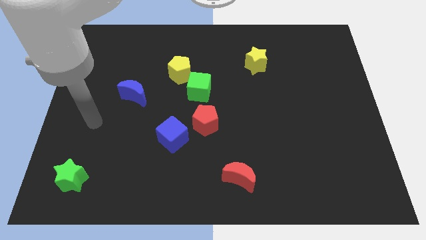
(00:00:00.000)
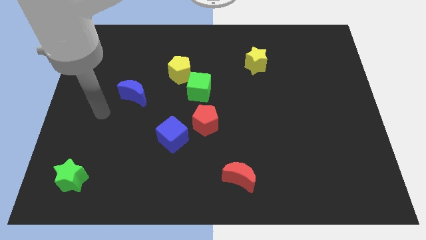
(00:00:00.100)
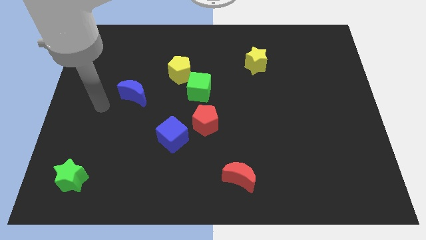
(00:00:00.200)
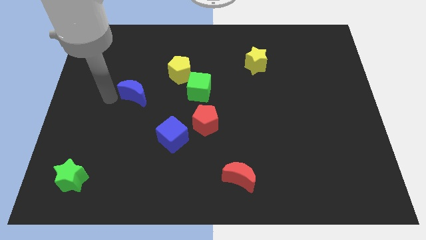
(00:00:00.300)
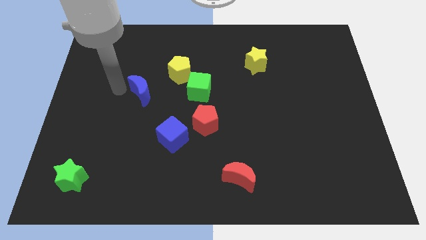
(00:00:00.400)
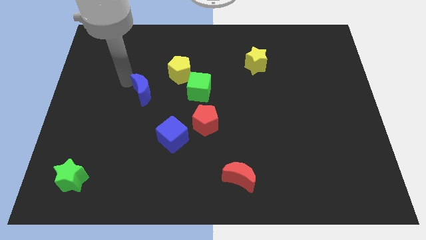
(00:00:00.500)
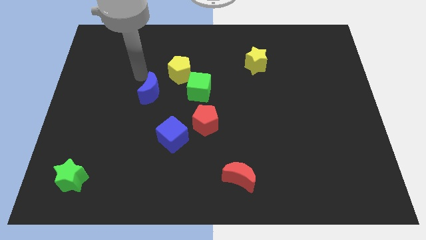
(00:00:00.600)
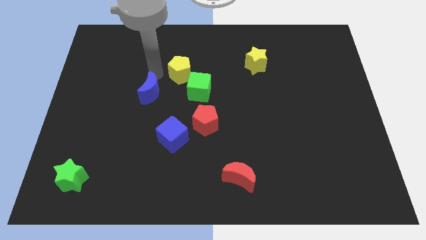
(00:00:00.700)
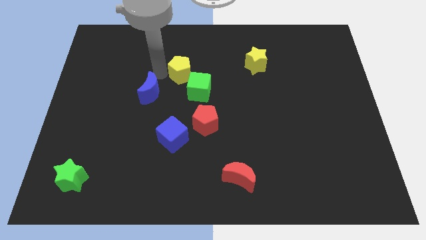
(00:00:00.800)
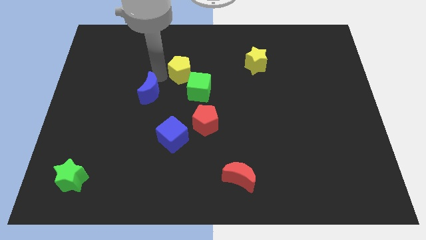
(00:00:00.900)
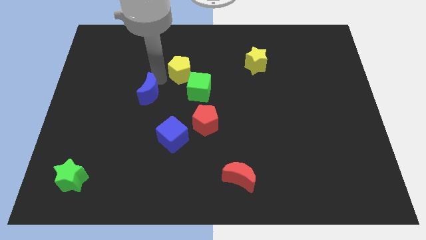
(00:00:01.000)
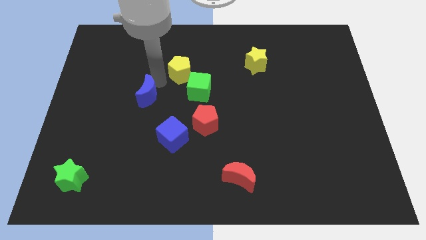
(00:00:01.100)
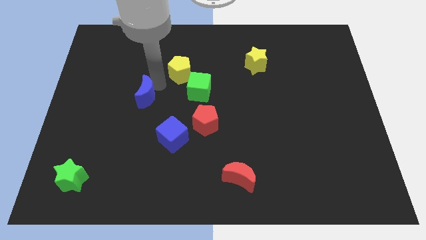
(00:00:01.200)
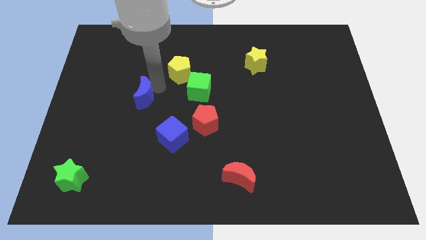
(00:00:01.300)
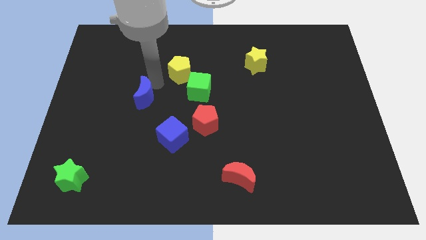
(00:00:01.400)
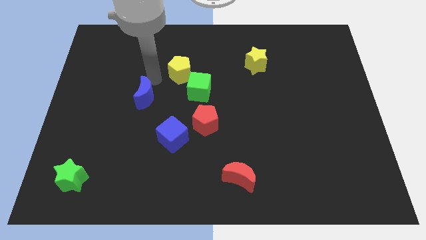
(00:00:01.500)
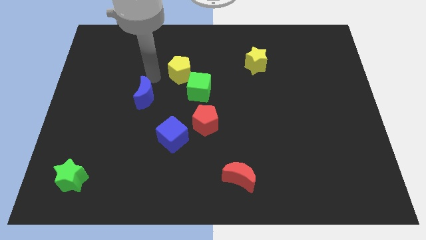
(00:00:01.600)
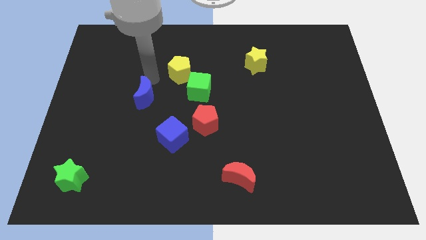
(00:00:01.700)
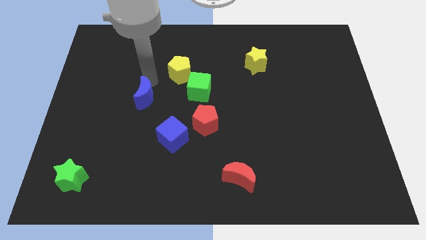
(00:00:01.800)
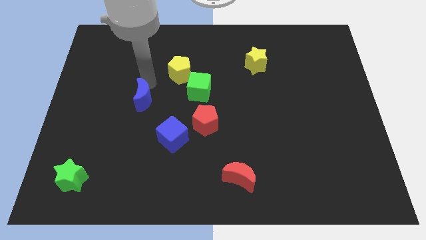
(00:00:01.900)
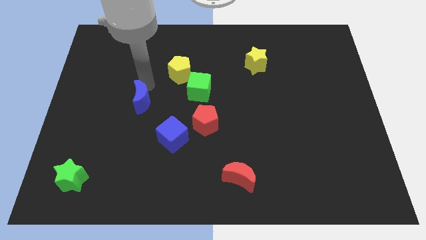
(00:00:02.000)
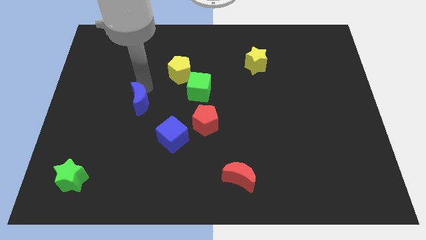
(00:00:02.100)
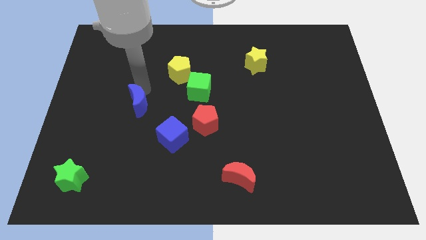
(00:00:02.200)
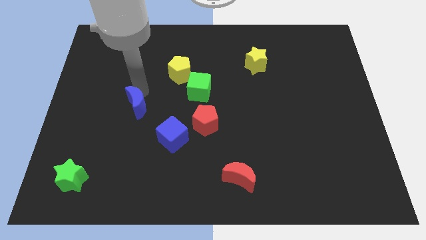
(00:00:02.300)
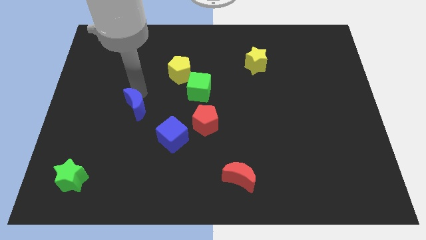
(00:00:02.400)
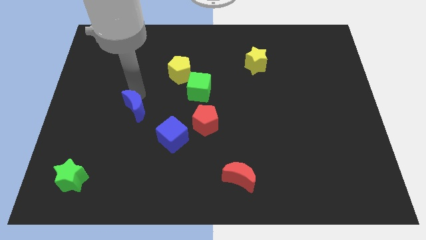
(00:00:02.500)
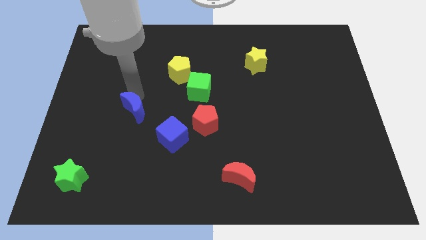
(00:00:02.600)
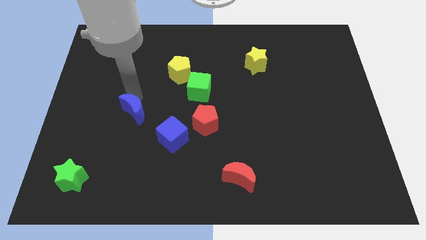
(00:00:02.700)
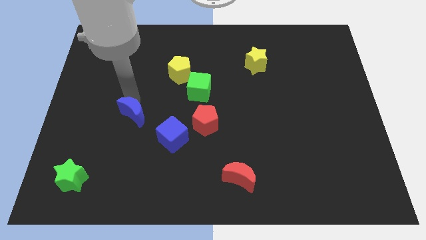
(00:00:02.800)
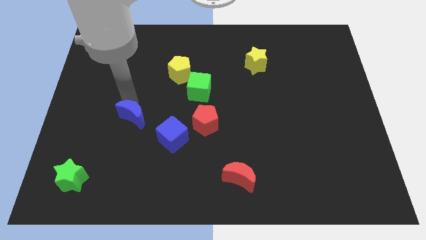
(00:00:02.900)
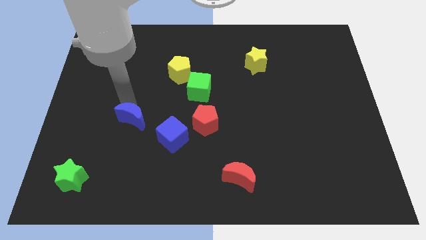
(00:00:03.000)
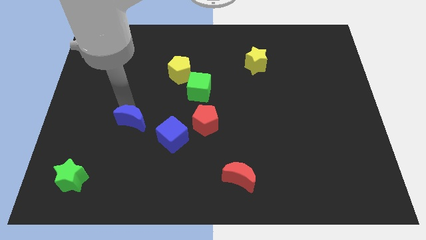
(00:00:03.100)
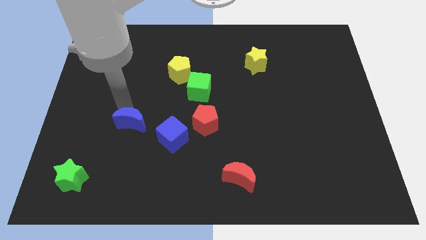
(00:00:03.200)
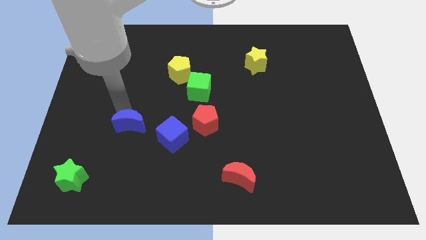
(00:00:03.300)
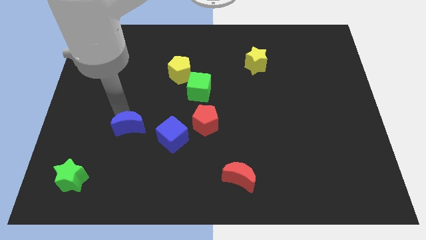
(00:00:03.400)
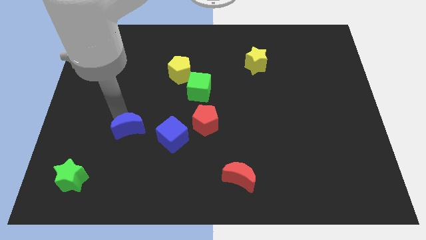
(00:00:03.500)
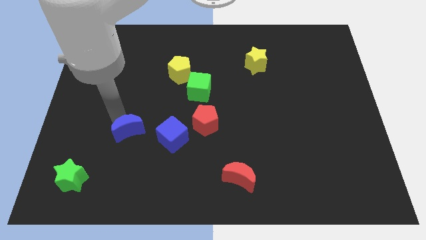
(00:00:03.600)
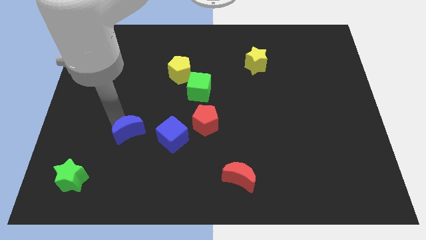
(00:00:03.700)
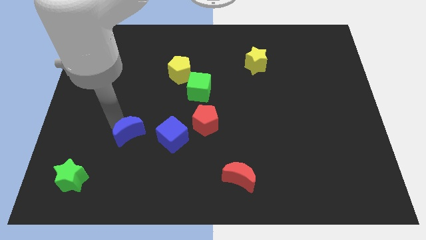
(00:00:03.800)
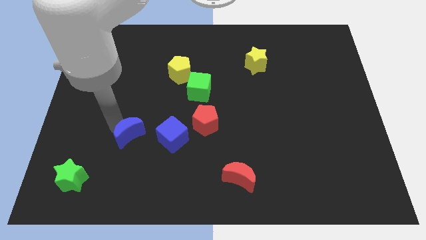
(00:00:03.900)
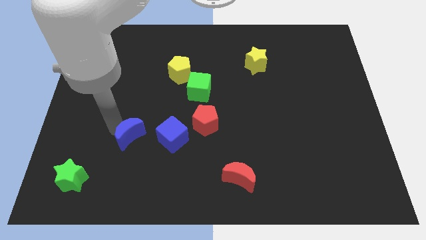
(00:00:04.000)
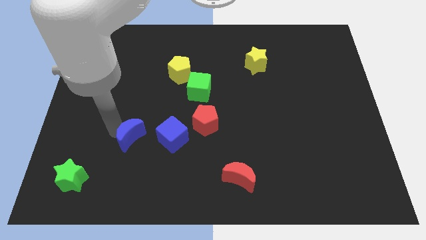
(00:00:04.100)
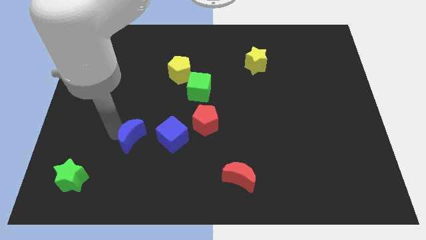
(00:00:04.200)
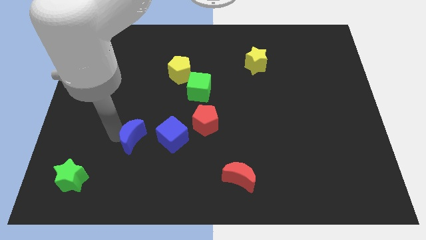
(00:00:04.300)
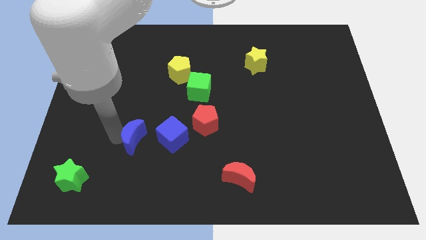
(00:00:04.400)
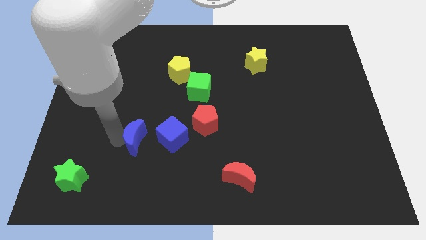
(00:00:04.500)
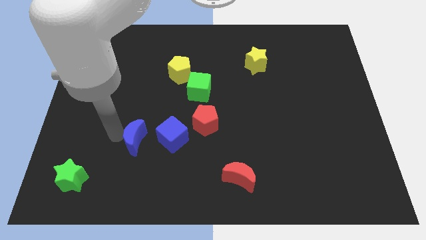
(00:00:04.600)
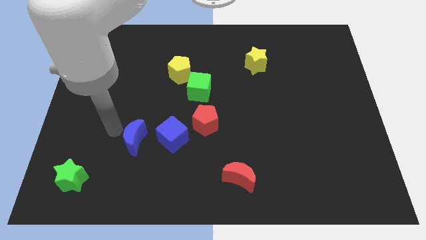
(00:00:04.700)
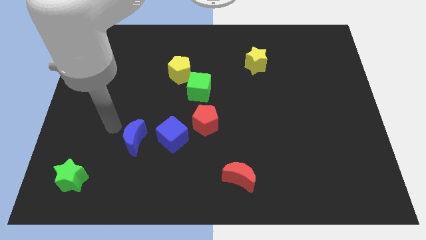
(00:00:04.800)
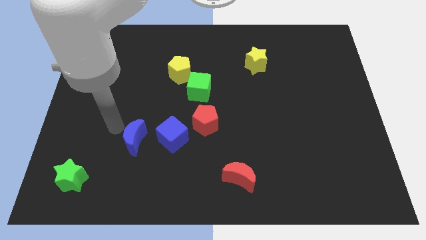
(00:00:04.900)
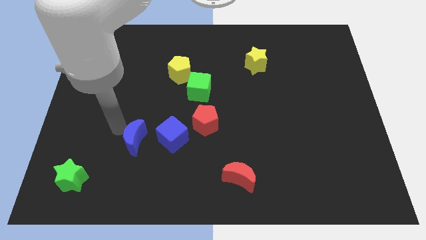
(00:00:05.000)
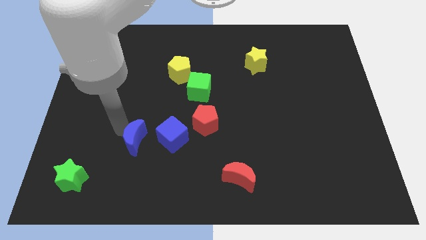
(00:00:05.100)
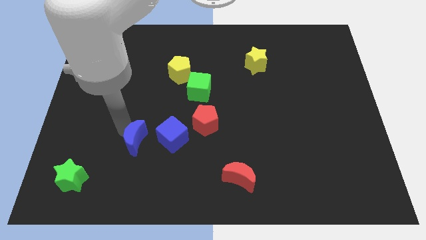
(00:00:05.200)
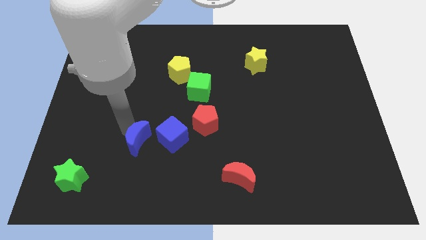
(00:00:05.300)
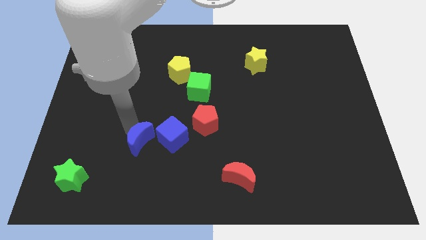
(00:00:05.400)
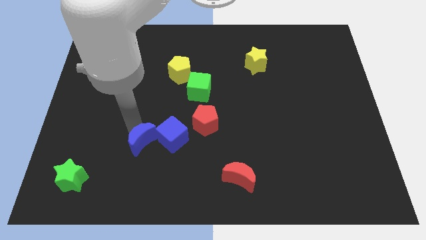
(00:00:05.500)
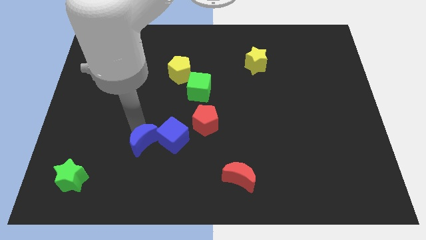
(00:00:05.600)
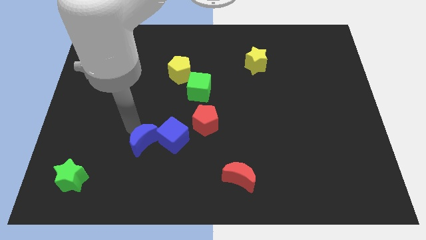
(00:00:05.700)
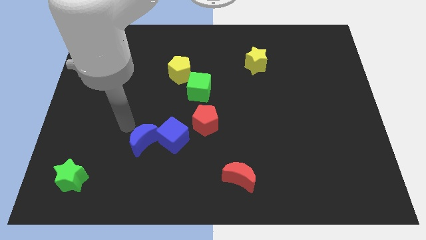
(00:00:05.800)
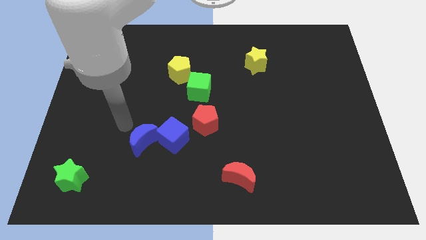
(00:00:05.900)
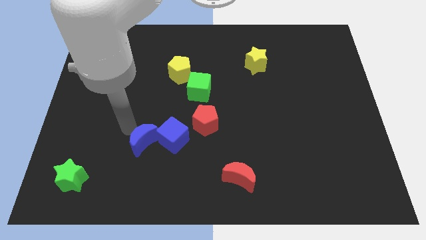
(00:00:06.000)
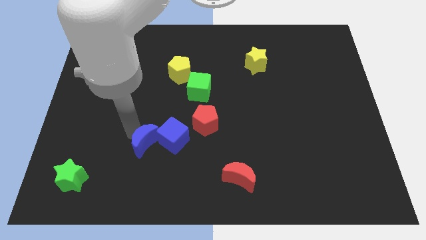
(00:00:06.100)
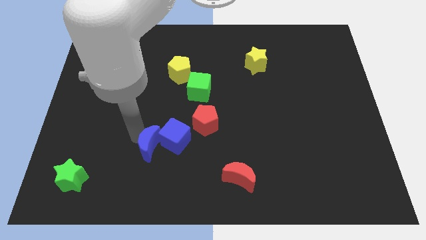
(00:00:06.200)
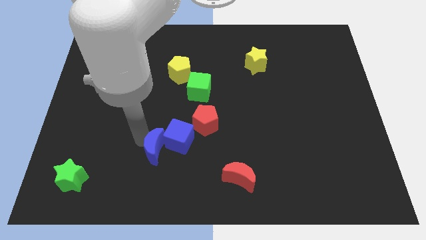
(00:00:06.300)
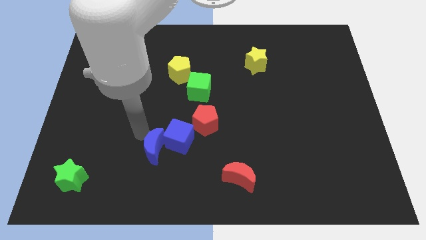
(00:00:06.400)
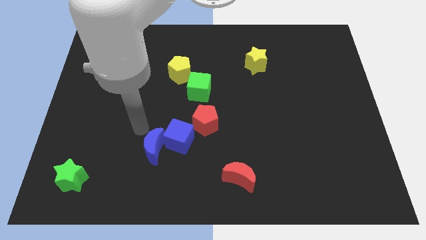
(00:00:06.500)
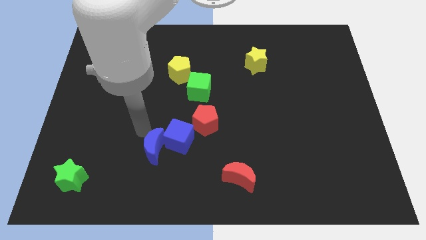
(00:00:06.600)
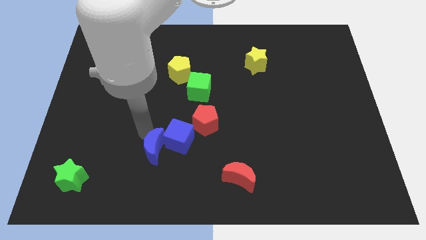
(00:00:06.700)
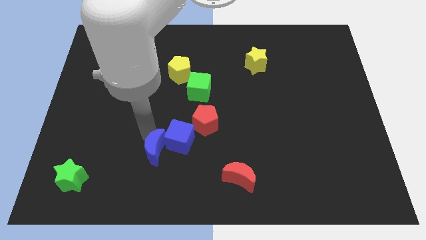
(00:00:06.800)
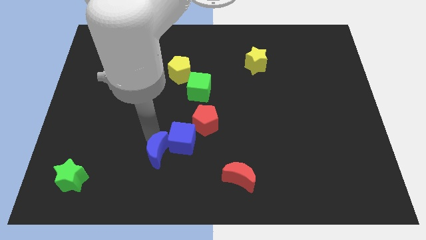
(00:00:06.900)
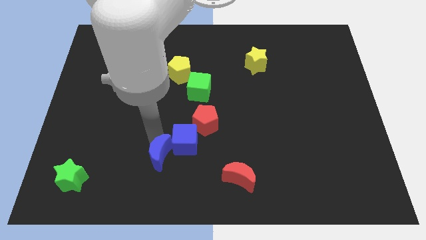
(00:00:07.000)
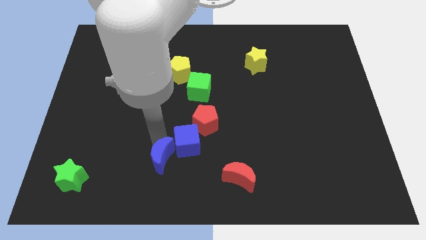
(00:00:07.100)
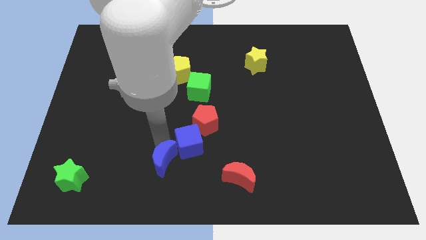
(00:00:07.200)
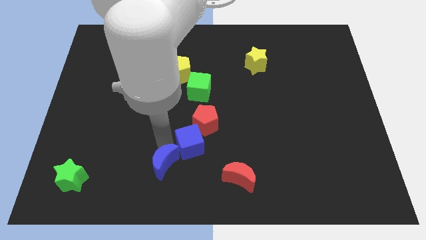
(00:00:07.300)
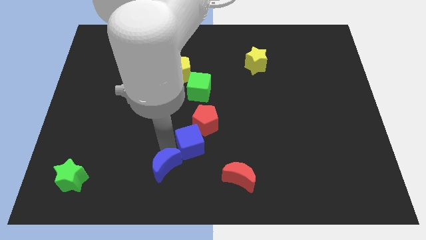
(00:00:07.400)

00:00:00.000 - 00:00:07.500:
push the blue moon below the blue cube
